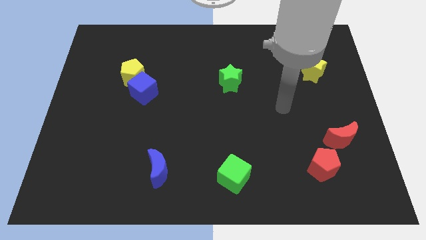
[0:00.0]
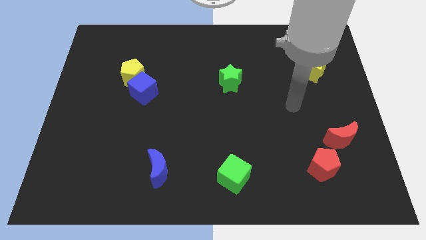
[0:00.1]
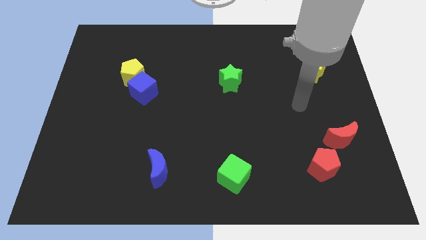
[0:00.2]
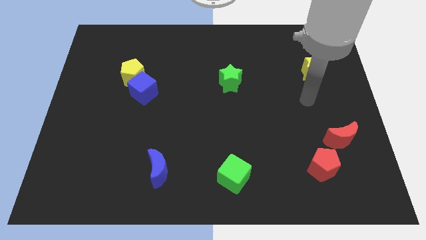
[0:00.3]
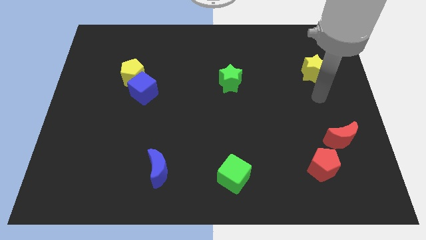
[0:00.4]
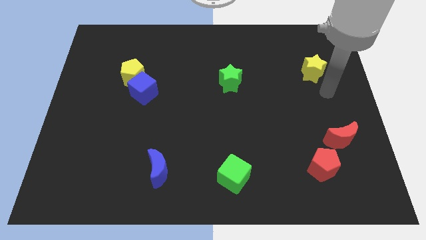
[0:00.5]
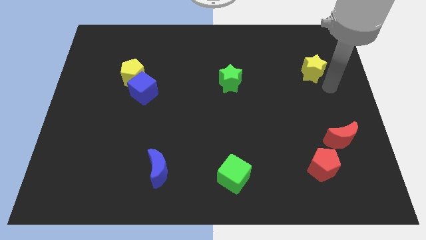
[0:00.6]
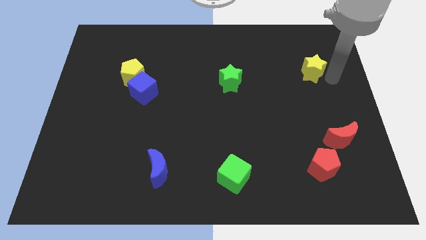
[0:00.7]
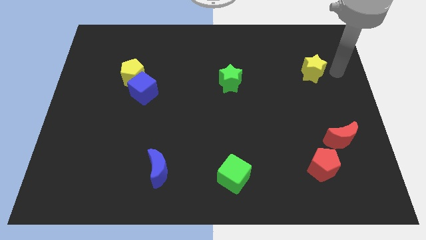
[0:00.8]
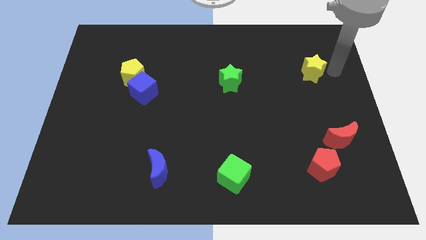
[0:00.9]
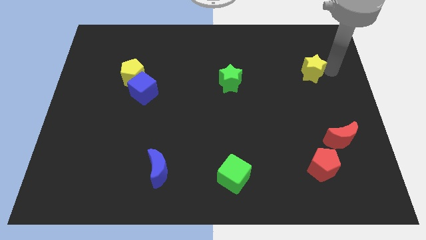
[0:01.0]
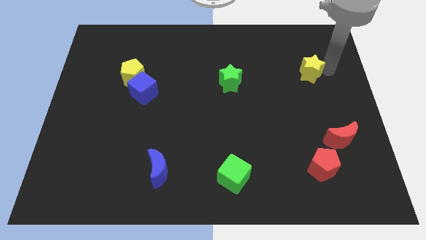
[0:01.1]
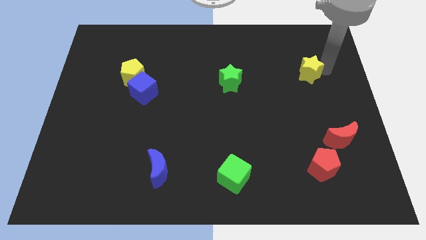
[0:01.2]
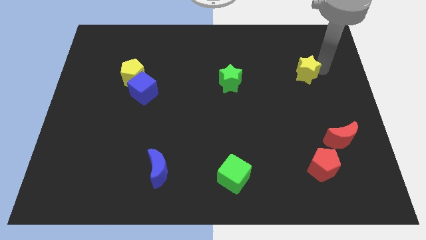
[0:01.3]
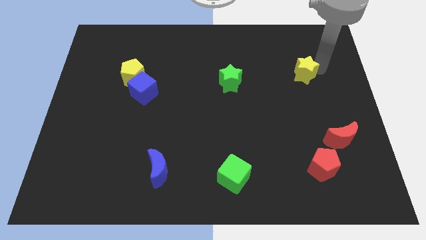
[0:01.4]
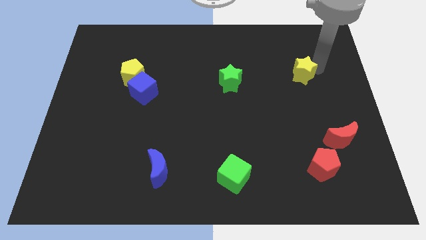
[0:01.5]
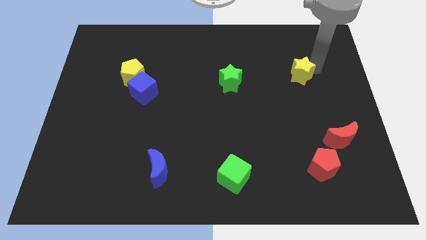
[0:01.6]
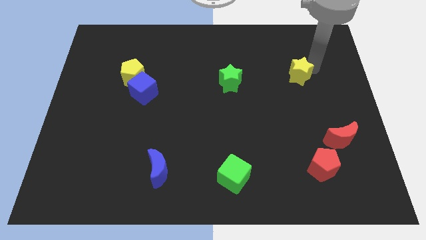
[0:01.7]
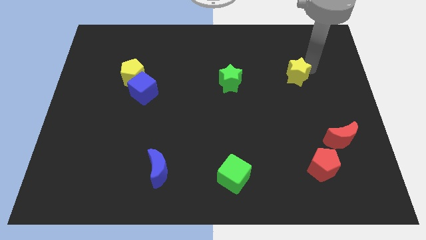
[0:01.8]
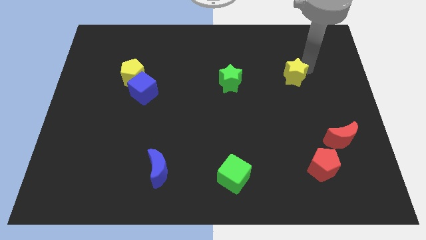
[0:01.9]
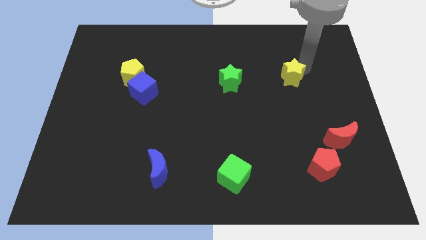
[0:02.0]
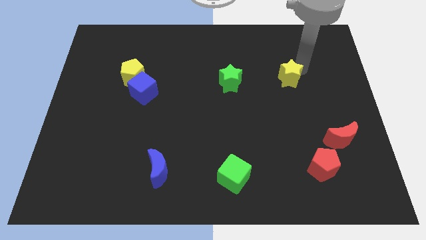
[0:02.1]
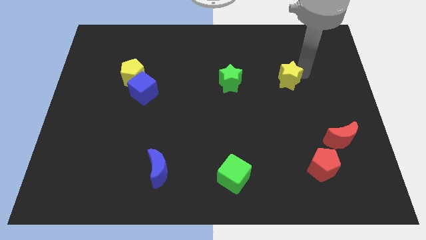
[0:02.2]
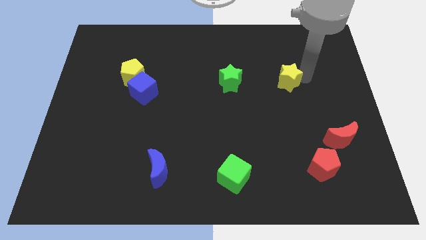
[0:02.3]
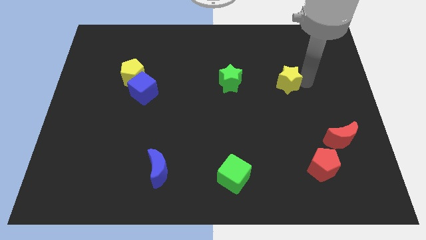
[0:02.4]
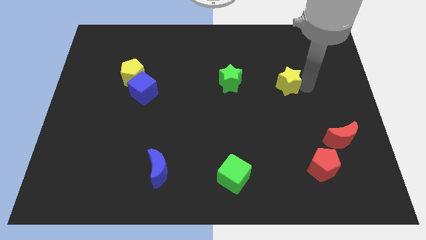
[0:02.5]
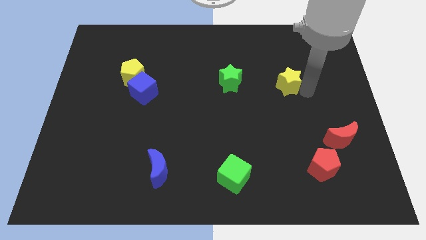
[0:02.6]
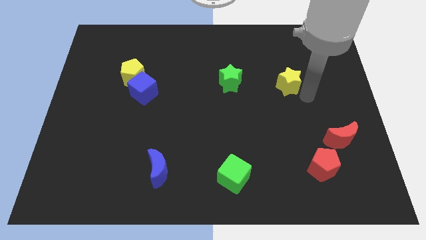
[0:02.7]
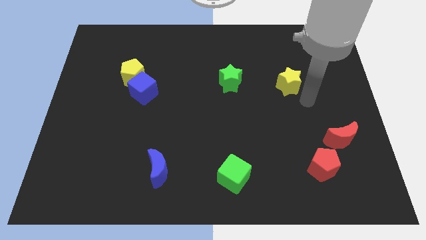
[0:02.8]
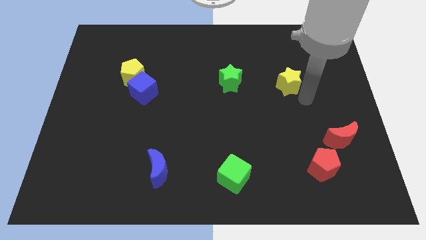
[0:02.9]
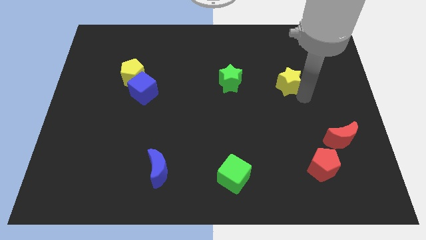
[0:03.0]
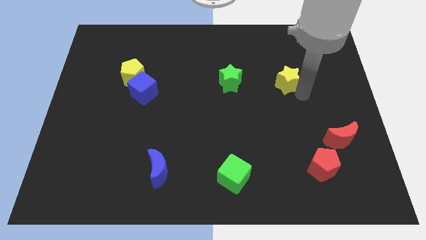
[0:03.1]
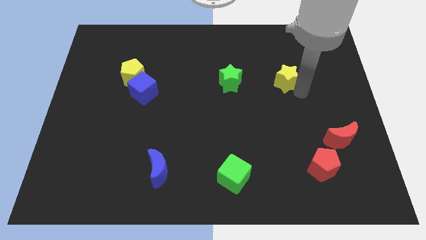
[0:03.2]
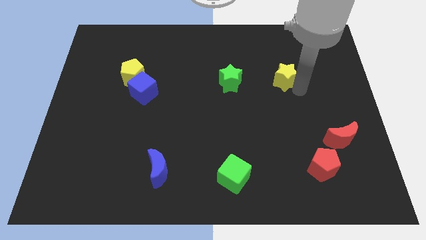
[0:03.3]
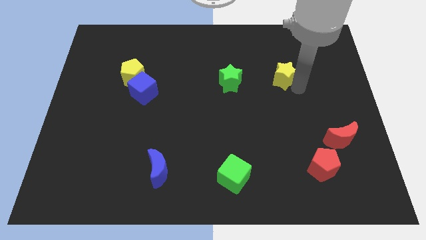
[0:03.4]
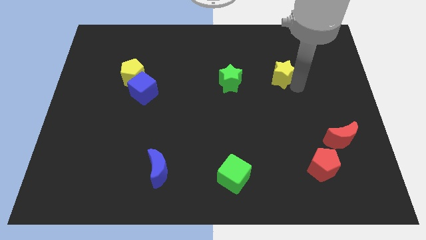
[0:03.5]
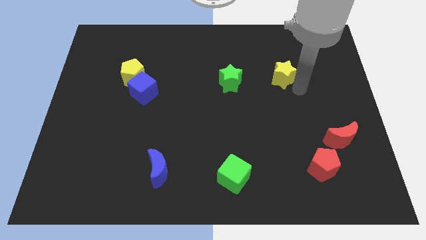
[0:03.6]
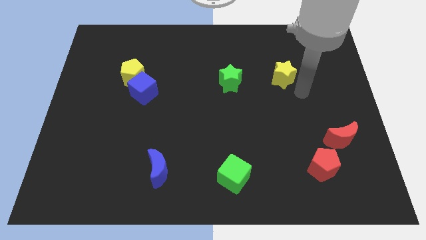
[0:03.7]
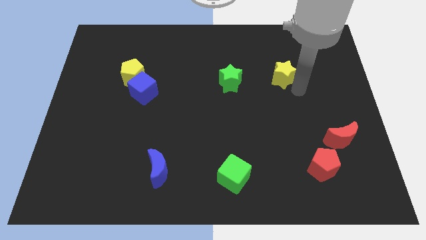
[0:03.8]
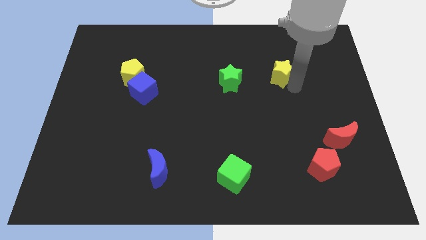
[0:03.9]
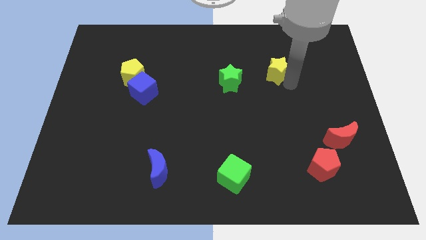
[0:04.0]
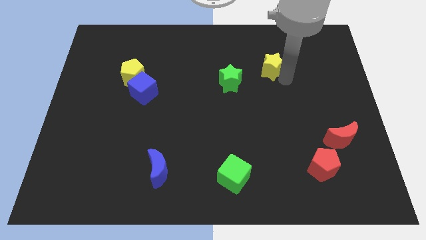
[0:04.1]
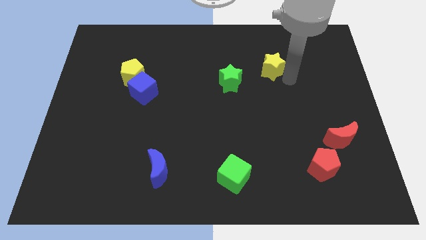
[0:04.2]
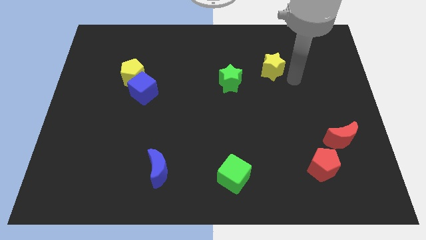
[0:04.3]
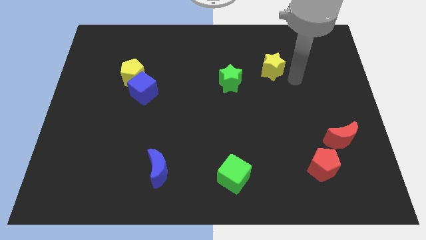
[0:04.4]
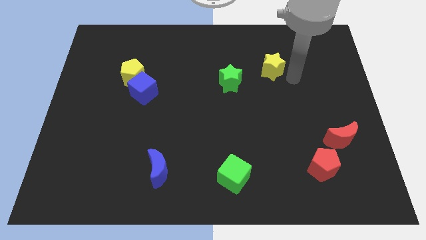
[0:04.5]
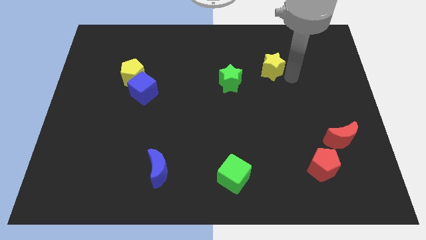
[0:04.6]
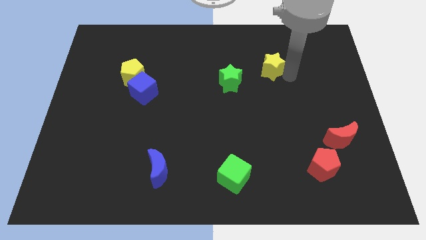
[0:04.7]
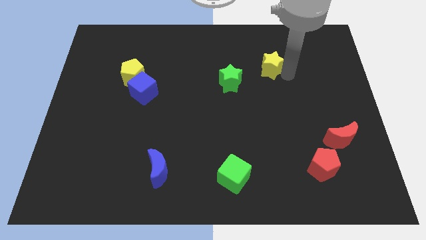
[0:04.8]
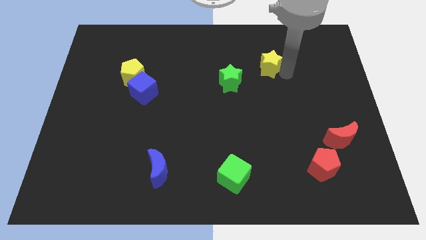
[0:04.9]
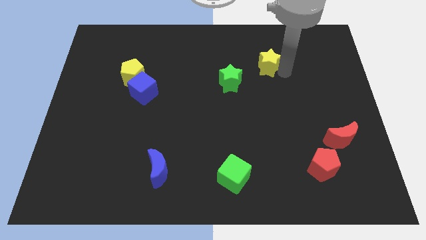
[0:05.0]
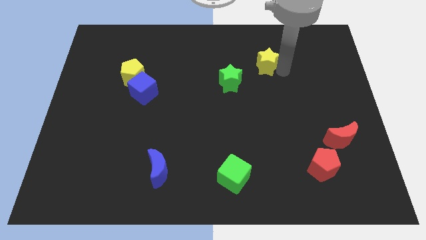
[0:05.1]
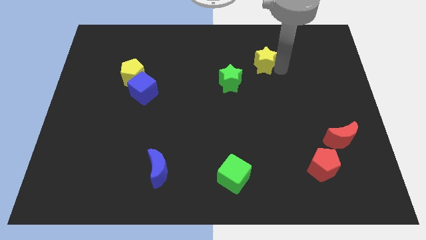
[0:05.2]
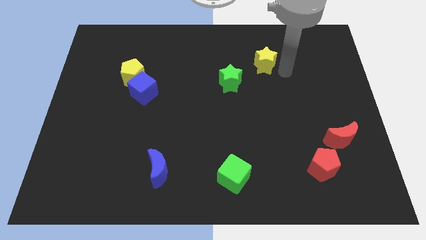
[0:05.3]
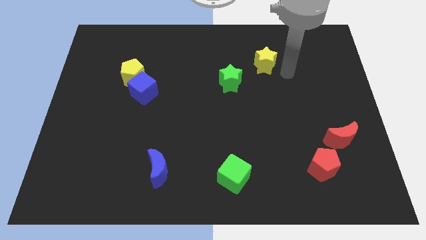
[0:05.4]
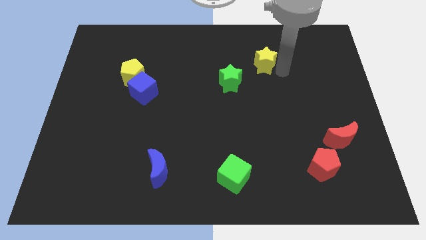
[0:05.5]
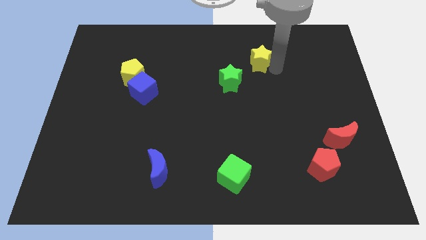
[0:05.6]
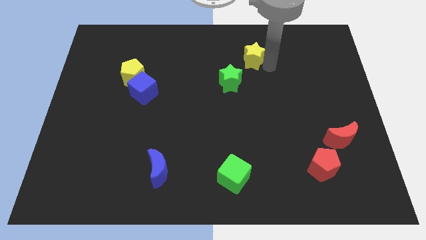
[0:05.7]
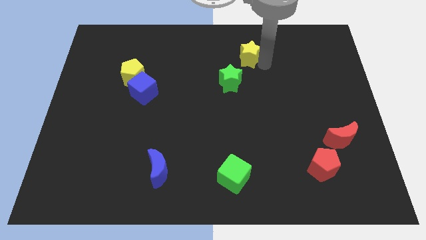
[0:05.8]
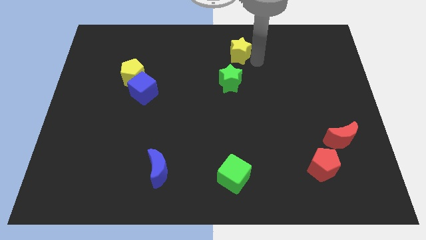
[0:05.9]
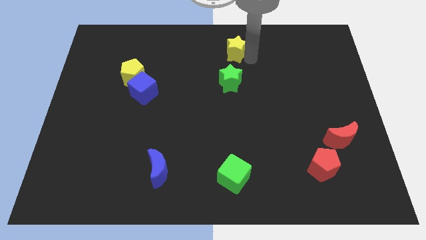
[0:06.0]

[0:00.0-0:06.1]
push the yellow star to the top

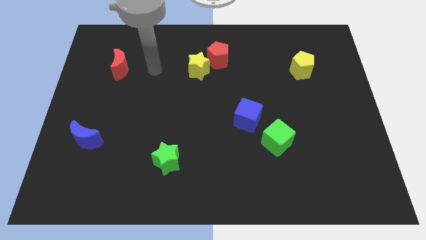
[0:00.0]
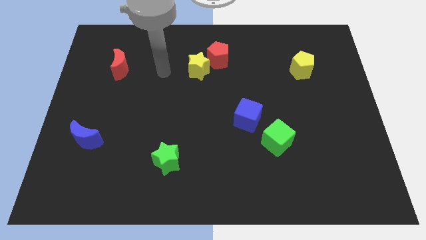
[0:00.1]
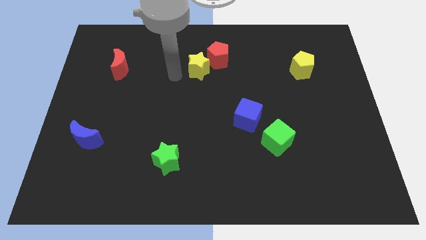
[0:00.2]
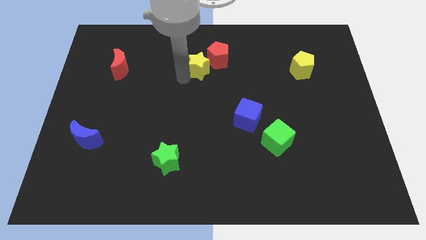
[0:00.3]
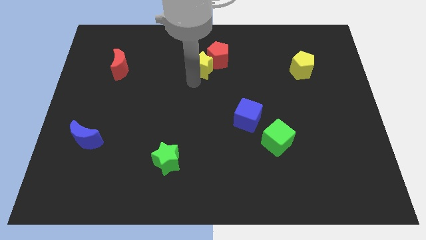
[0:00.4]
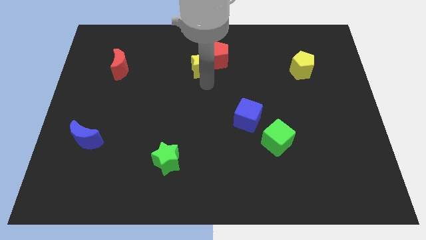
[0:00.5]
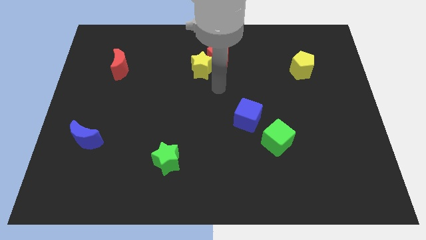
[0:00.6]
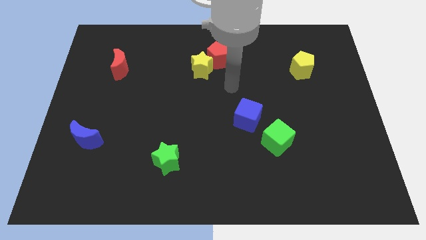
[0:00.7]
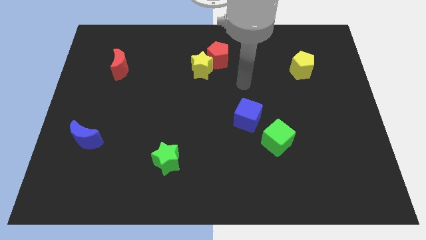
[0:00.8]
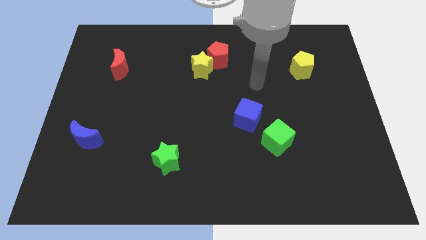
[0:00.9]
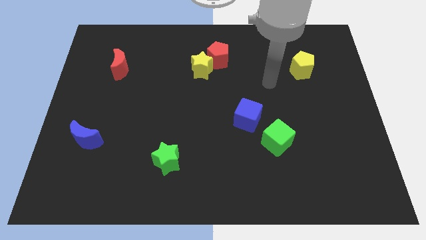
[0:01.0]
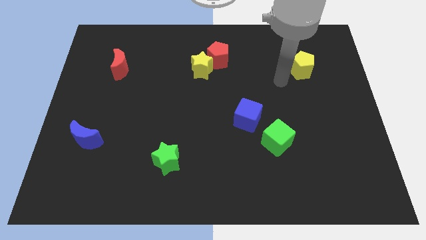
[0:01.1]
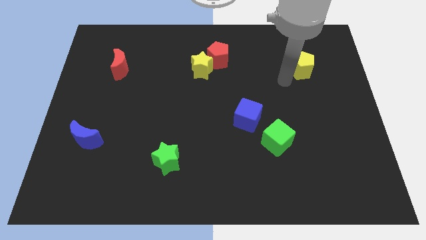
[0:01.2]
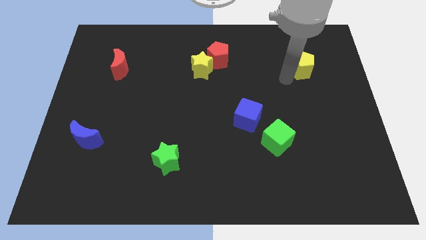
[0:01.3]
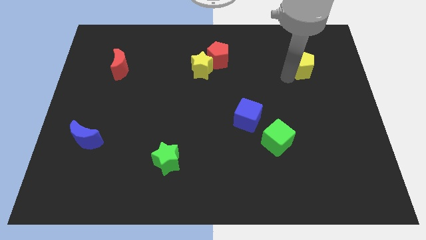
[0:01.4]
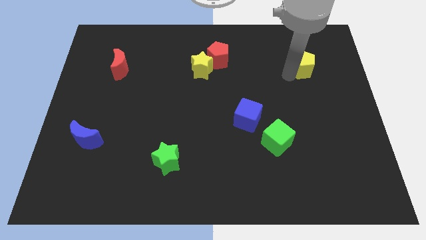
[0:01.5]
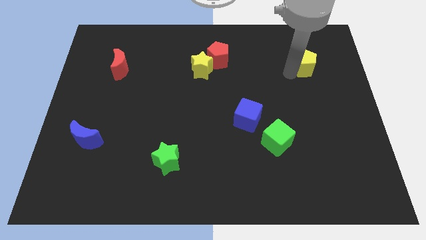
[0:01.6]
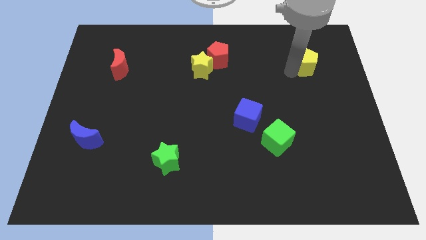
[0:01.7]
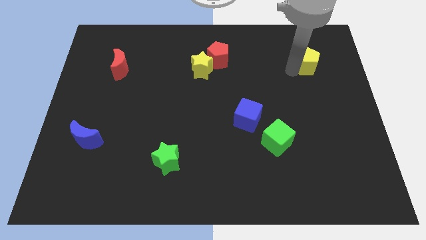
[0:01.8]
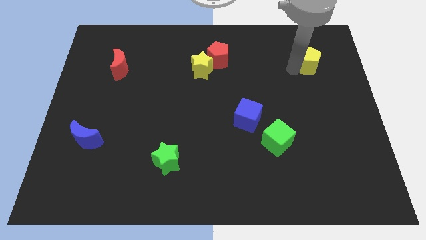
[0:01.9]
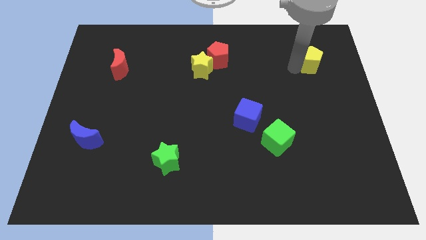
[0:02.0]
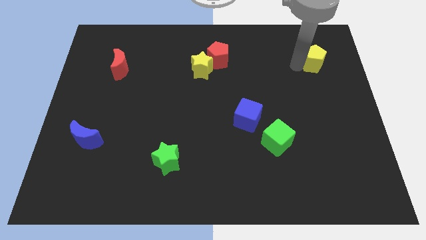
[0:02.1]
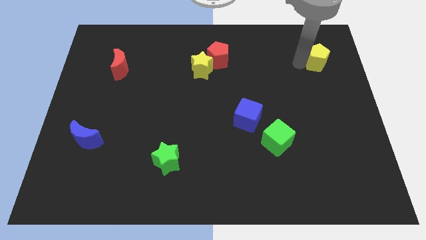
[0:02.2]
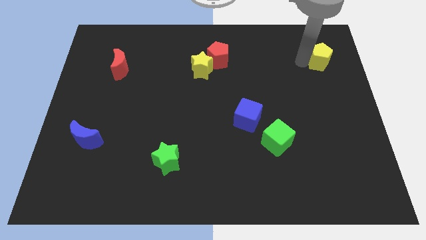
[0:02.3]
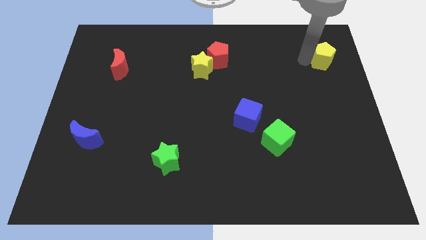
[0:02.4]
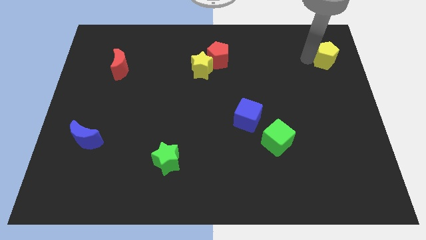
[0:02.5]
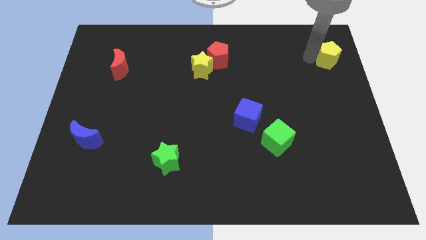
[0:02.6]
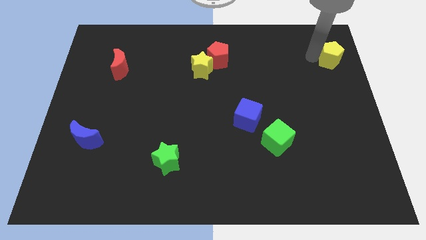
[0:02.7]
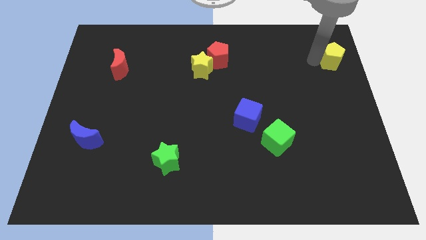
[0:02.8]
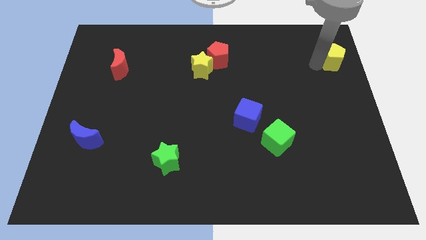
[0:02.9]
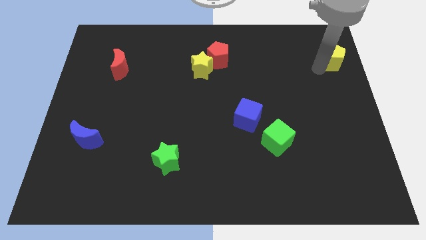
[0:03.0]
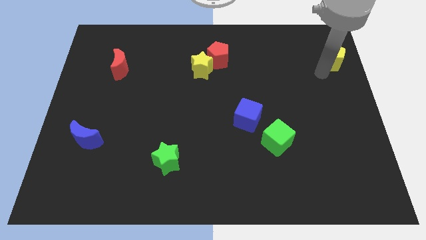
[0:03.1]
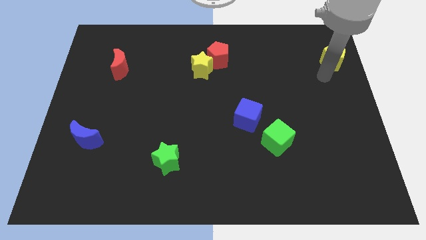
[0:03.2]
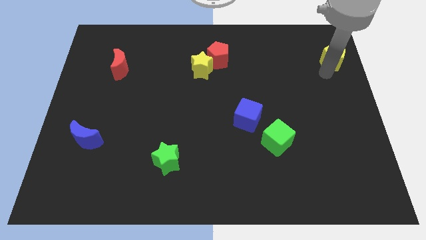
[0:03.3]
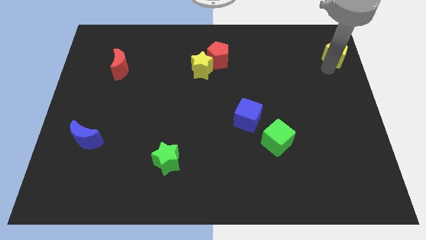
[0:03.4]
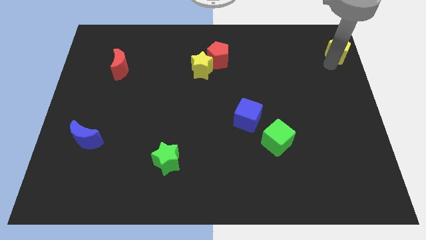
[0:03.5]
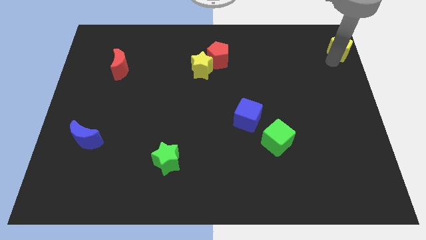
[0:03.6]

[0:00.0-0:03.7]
put the yellow pentagon to the top right corner
